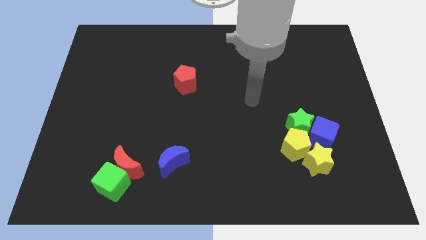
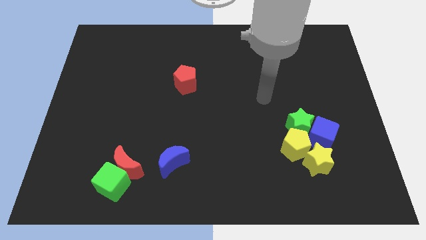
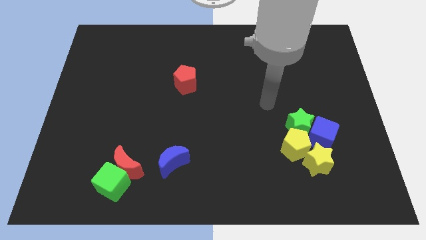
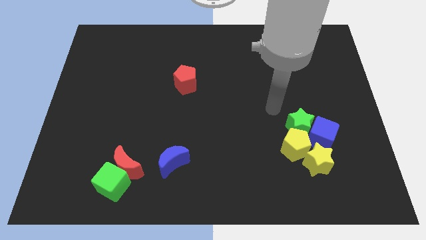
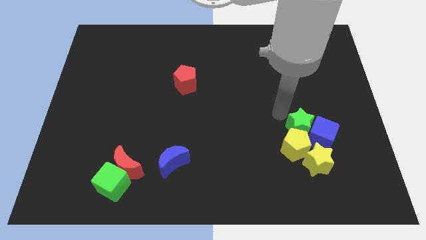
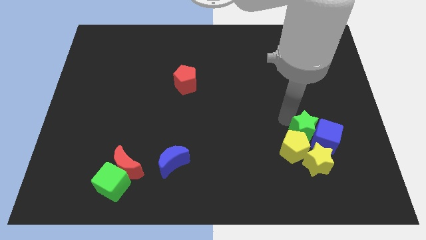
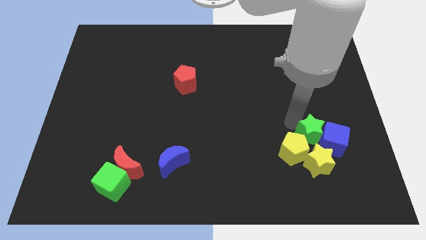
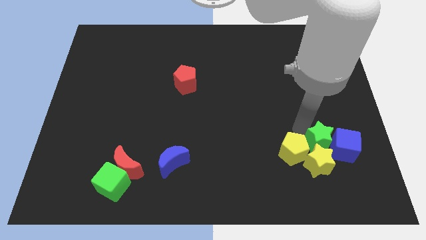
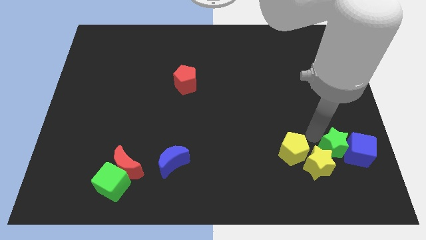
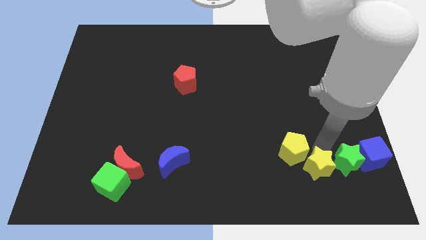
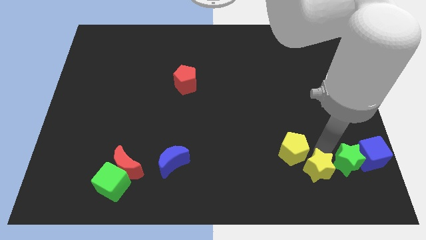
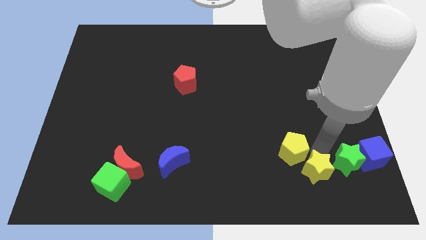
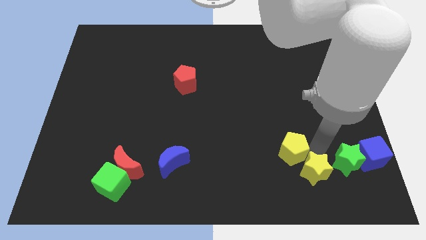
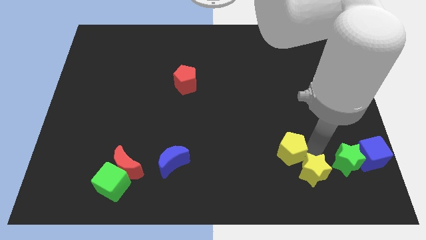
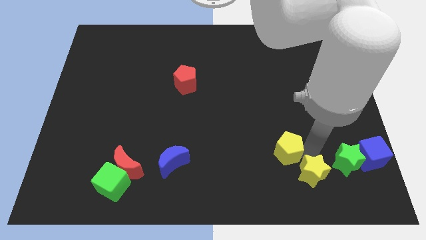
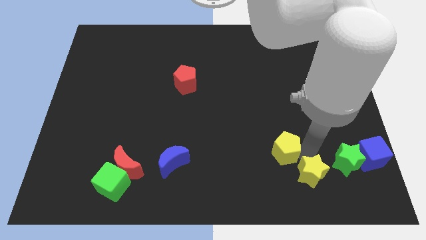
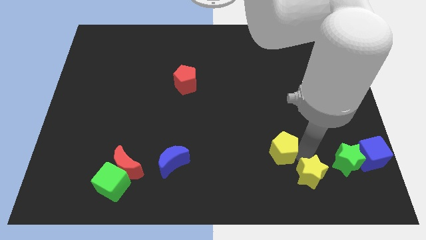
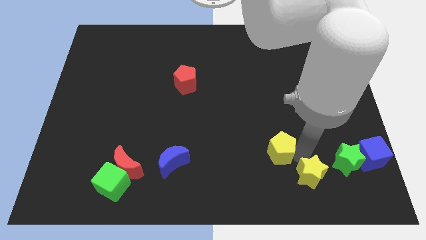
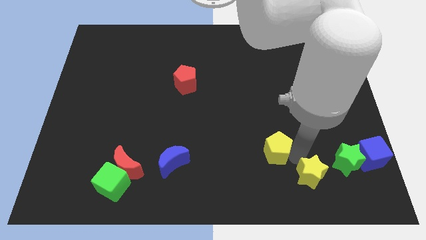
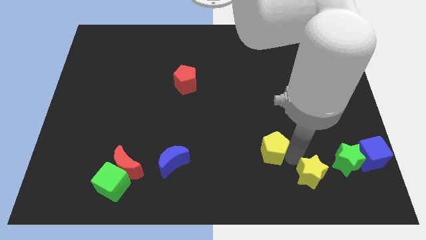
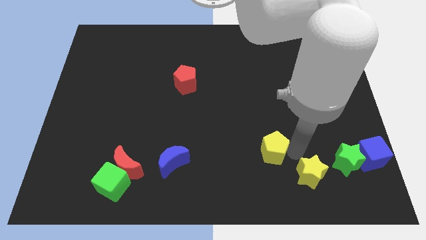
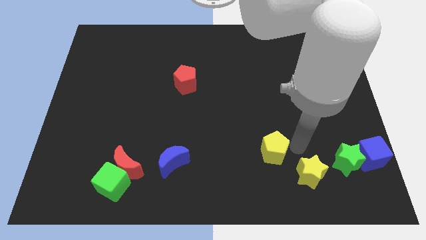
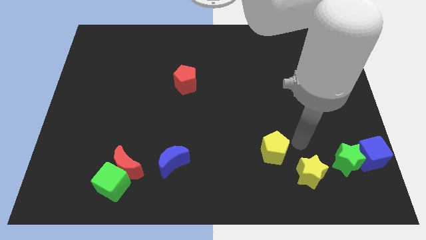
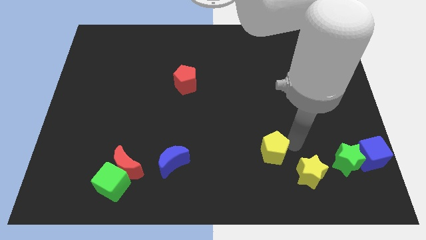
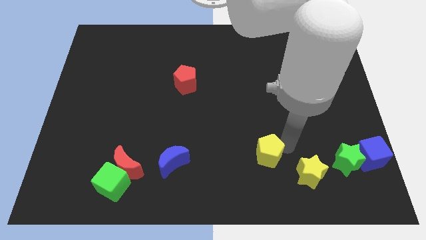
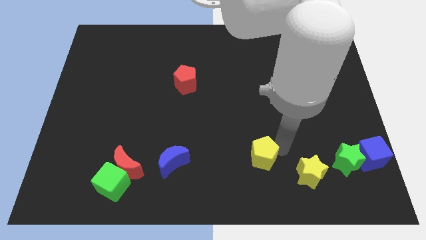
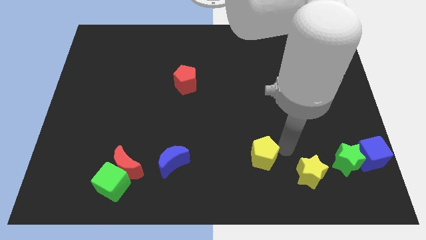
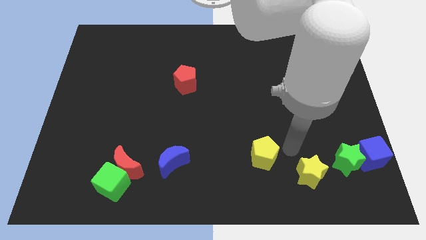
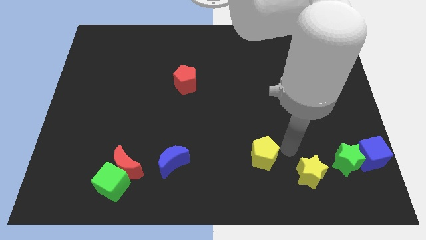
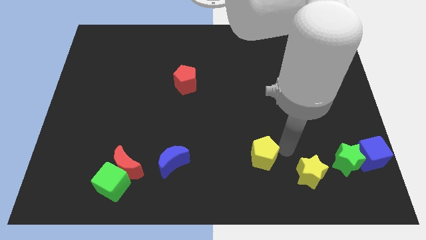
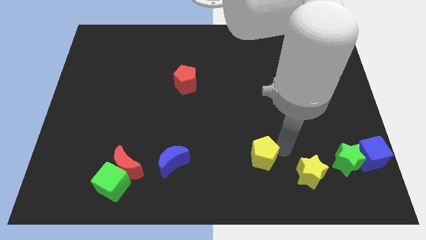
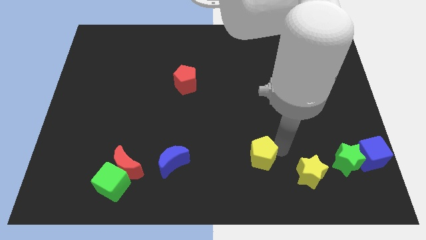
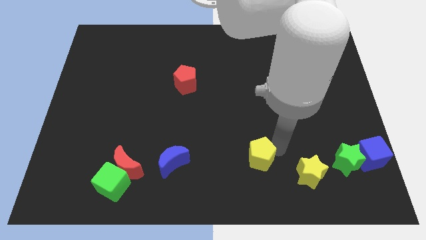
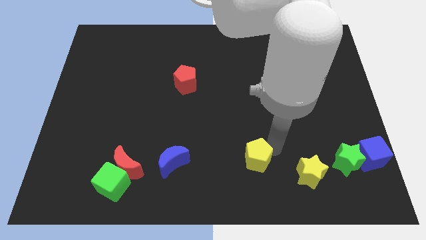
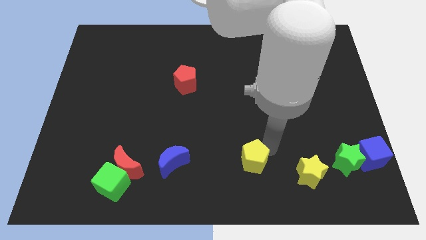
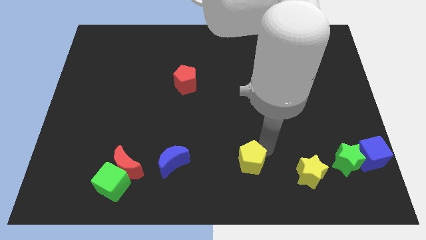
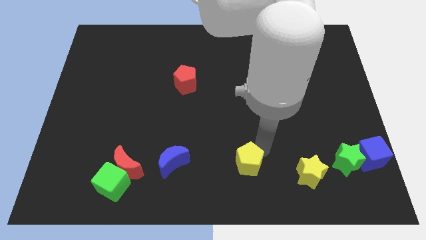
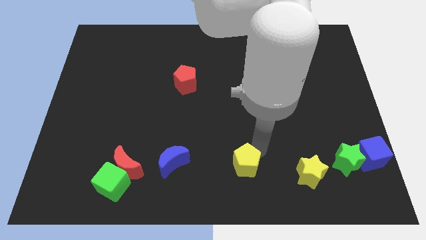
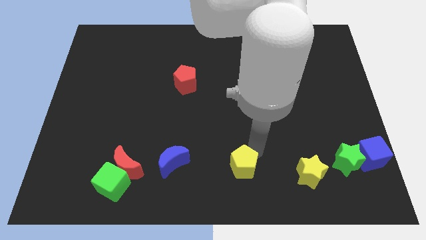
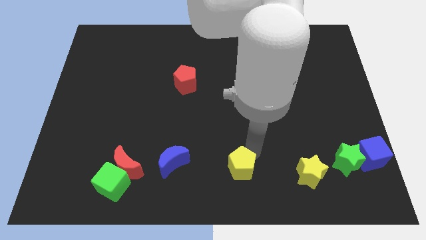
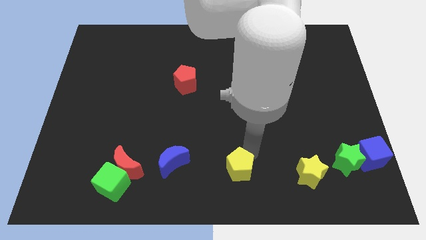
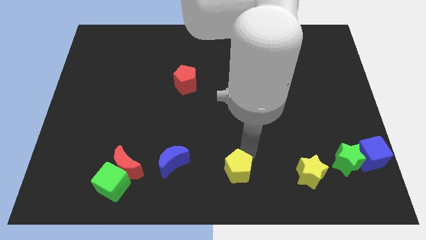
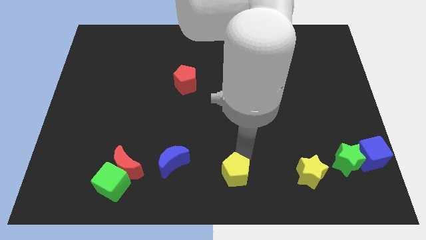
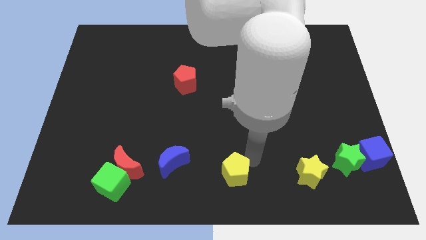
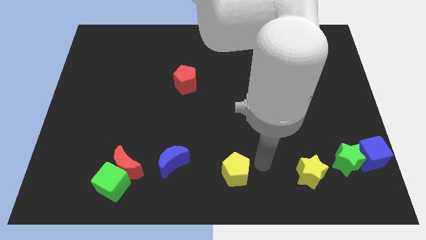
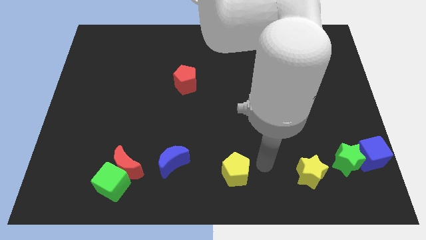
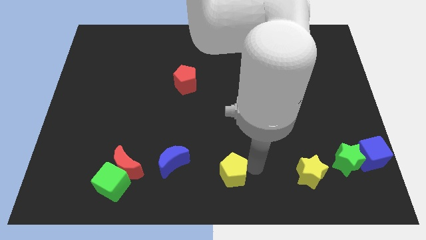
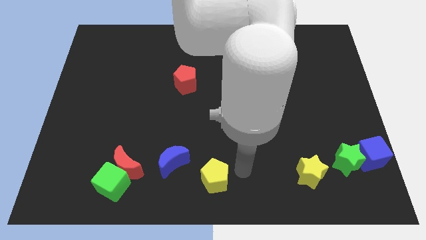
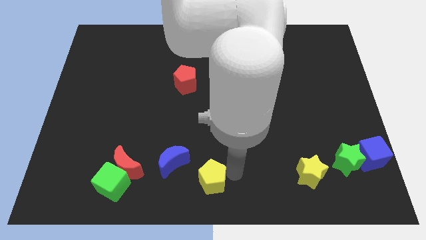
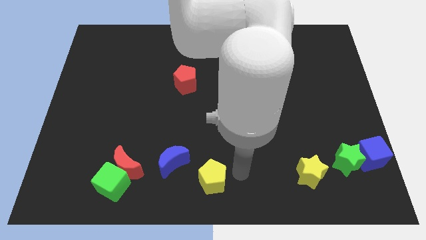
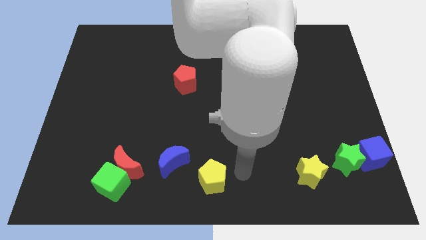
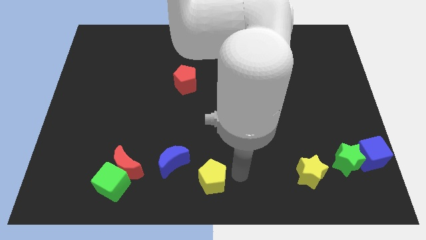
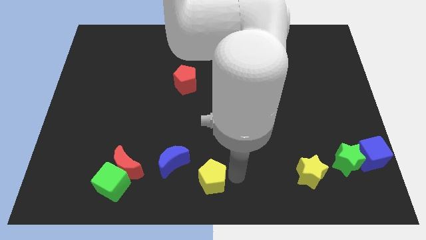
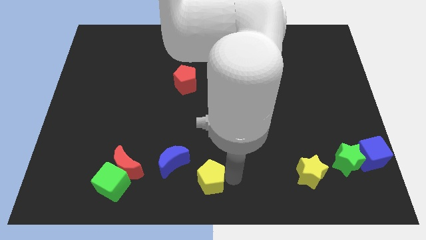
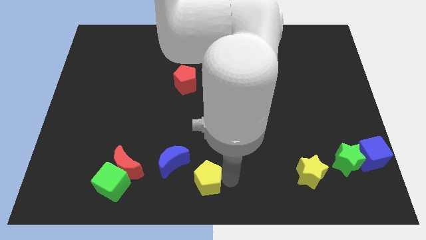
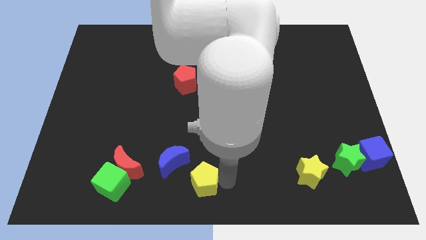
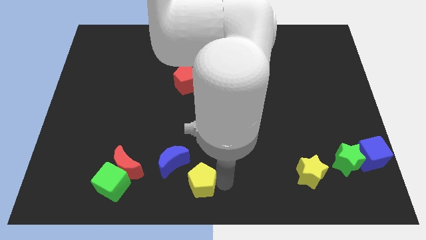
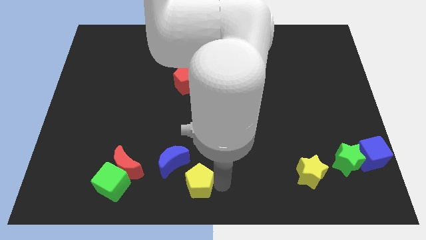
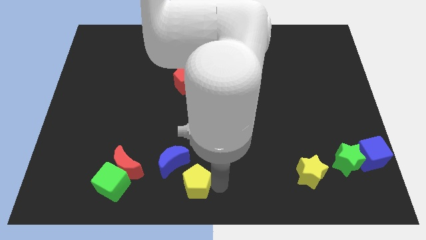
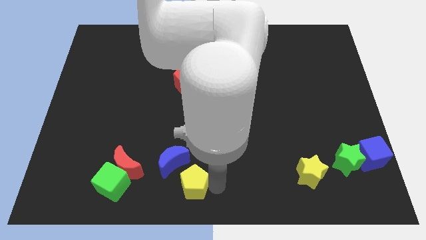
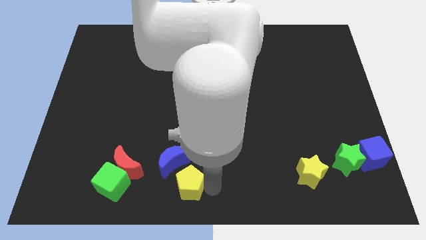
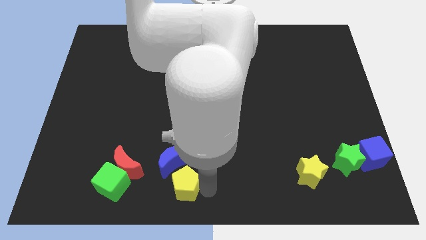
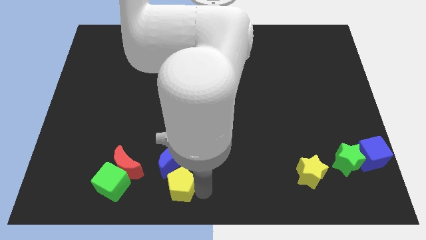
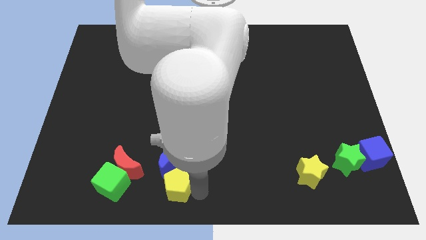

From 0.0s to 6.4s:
move the yellow pentagon diagonally down and to the left of the blue moon
